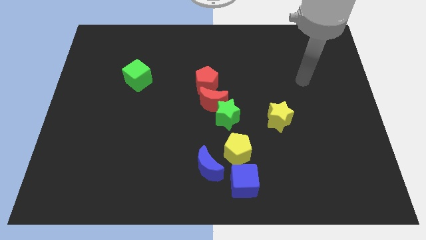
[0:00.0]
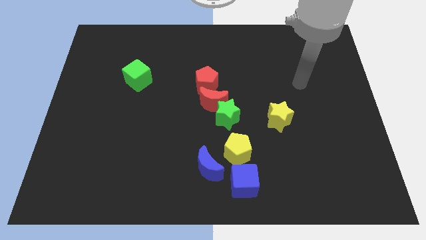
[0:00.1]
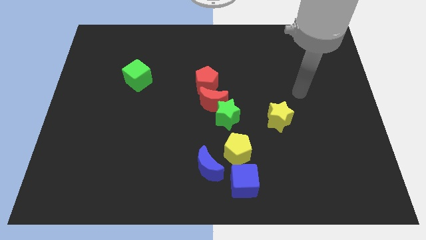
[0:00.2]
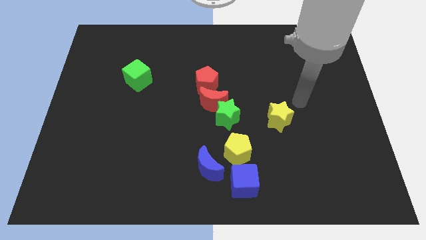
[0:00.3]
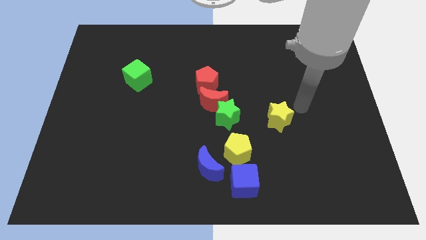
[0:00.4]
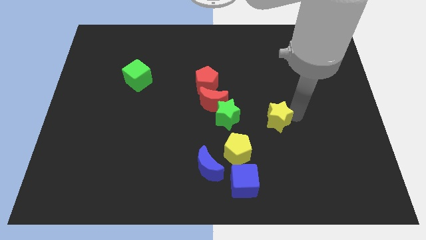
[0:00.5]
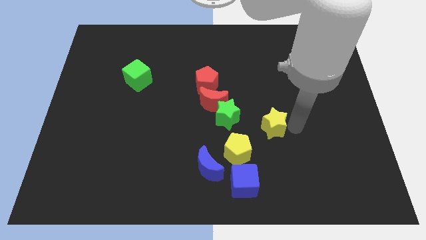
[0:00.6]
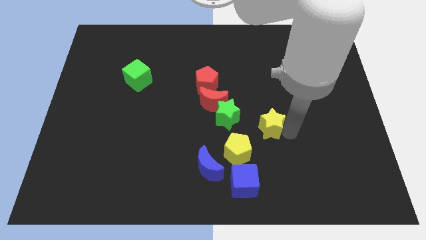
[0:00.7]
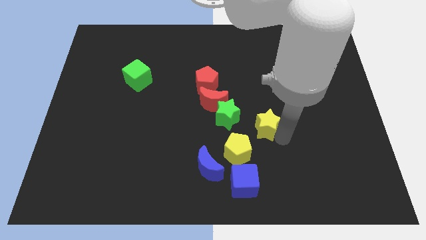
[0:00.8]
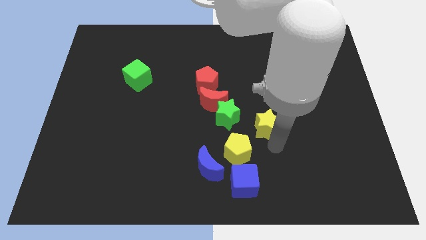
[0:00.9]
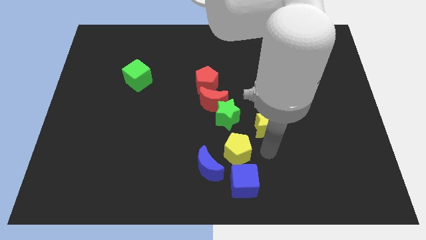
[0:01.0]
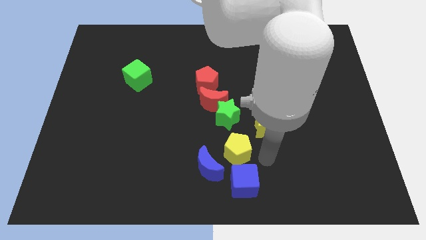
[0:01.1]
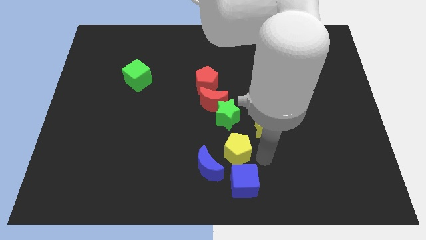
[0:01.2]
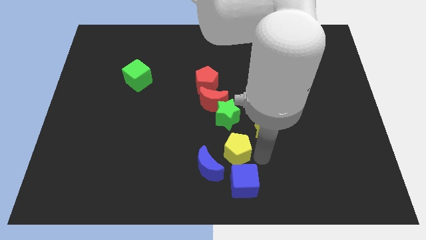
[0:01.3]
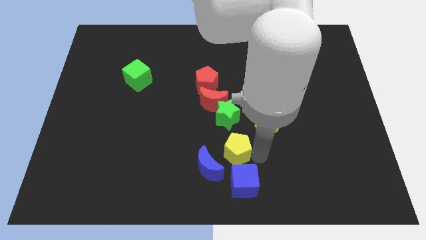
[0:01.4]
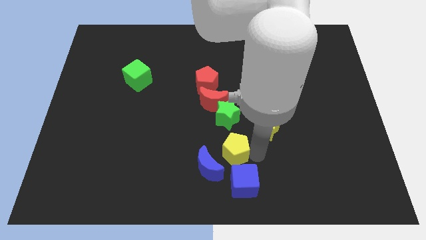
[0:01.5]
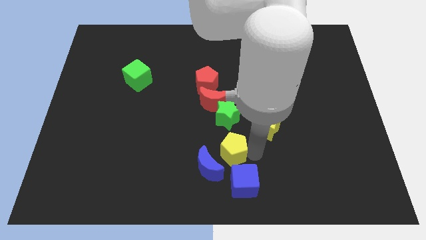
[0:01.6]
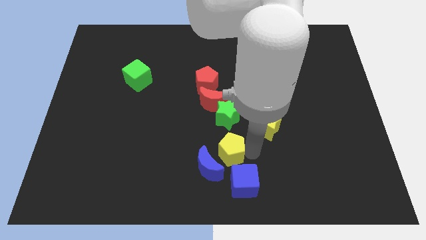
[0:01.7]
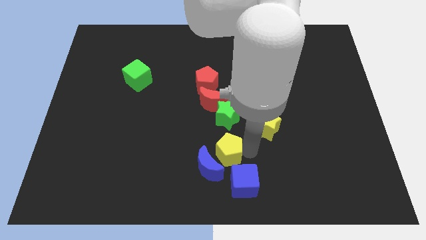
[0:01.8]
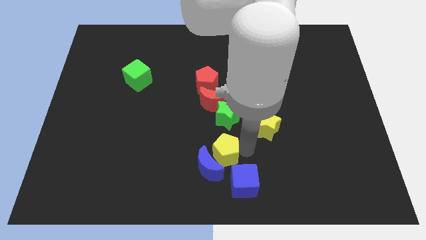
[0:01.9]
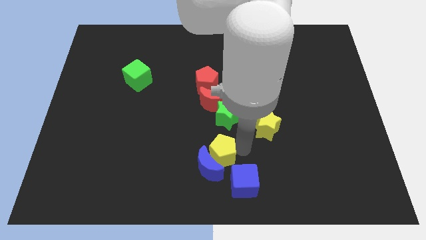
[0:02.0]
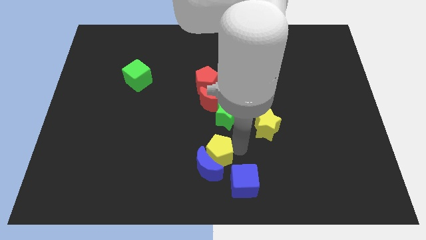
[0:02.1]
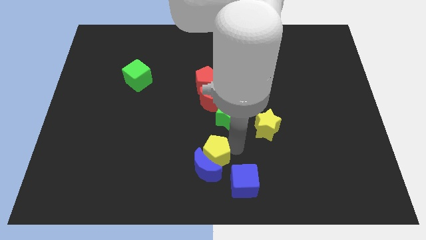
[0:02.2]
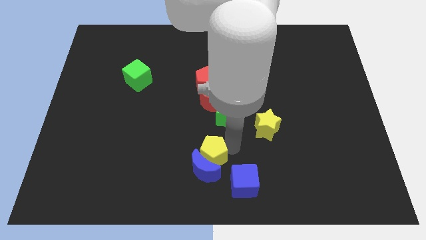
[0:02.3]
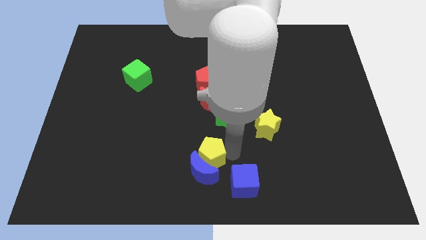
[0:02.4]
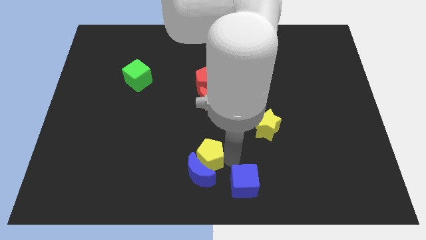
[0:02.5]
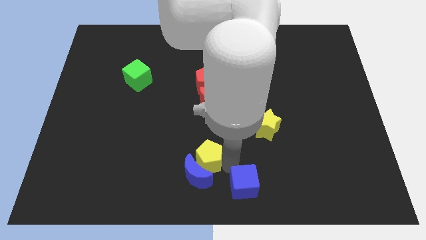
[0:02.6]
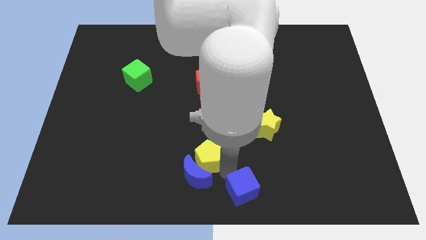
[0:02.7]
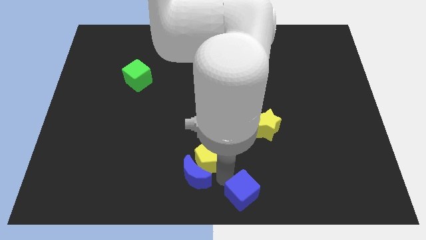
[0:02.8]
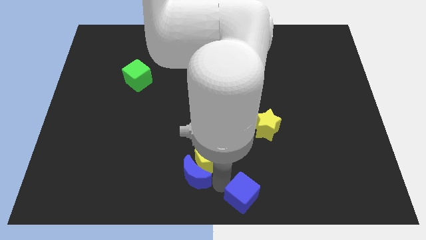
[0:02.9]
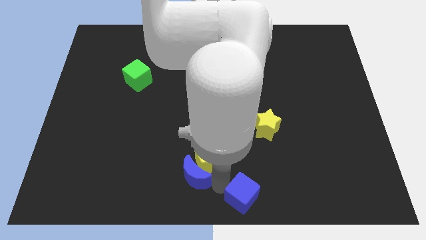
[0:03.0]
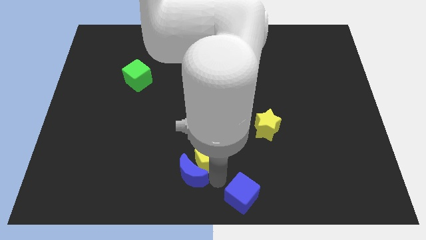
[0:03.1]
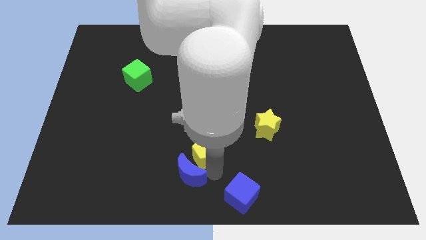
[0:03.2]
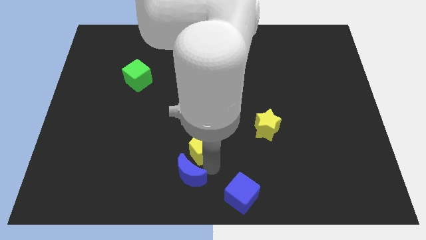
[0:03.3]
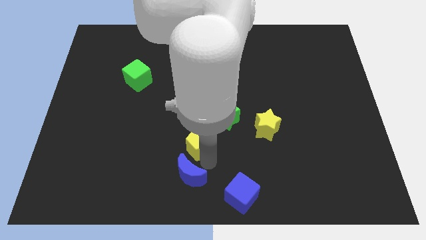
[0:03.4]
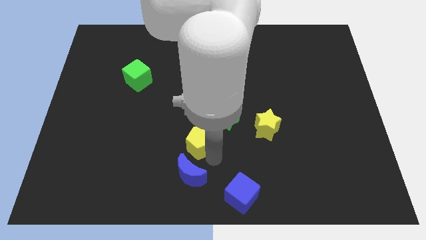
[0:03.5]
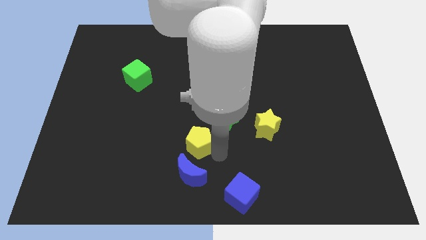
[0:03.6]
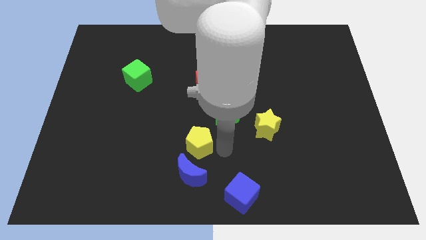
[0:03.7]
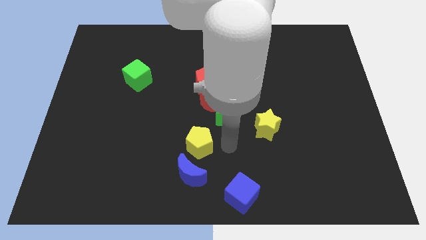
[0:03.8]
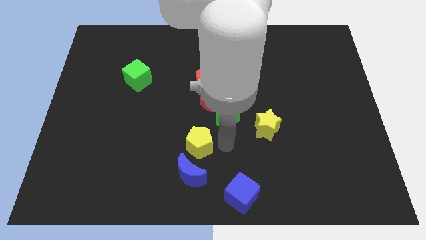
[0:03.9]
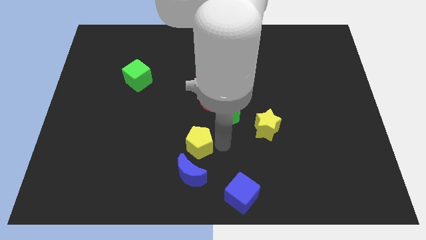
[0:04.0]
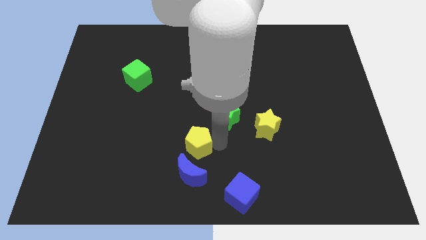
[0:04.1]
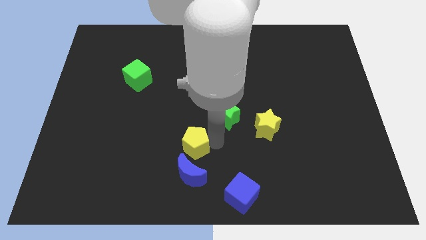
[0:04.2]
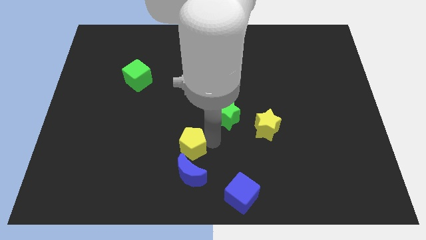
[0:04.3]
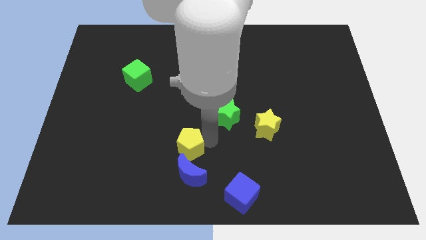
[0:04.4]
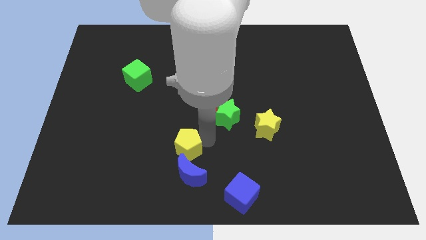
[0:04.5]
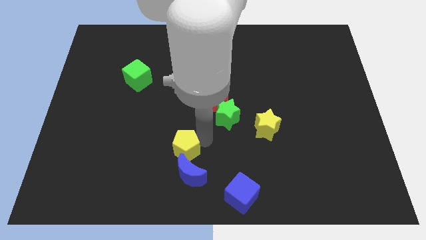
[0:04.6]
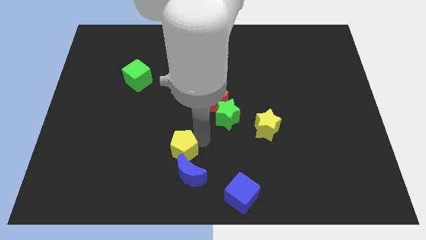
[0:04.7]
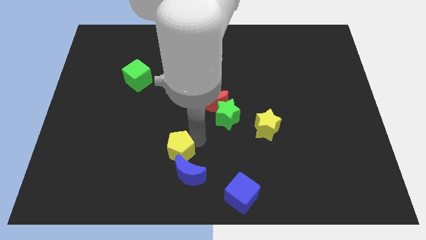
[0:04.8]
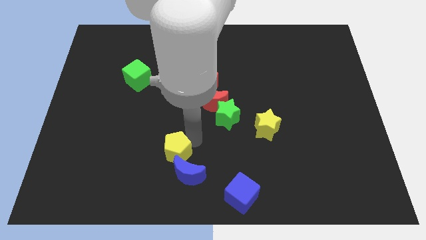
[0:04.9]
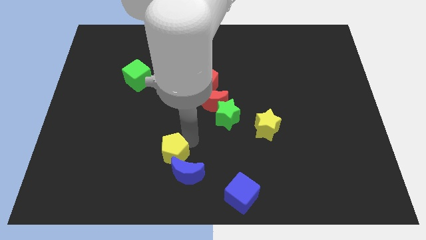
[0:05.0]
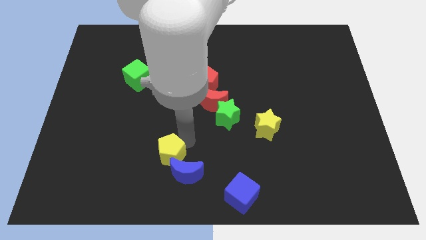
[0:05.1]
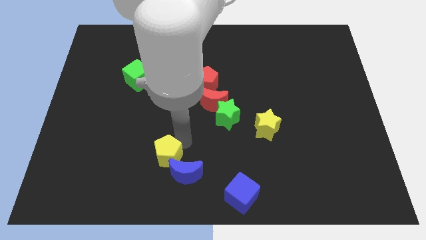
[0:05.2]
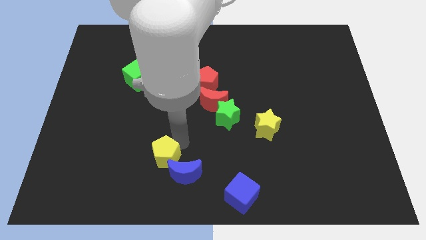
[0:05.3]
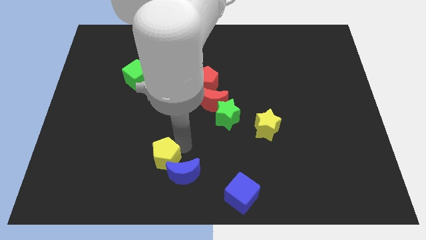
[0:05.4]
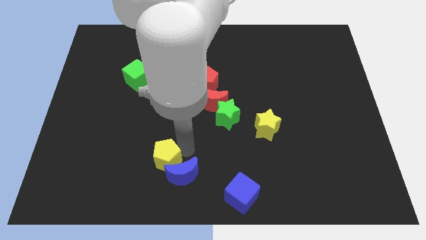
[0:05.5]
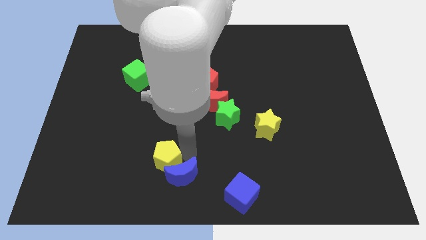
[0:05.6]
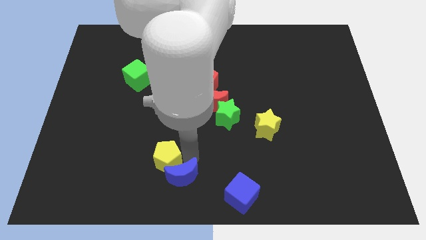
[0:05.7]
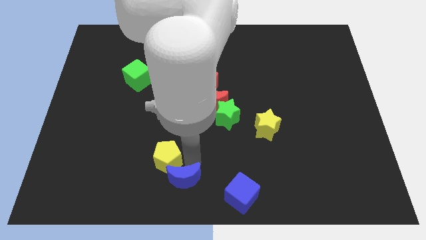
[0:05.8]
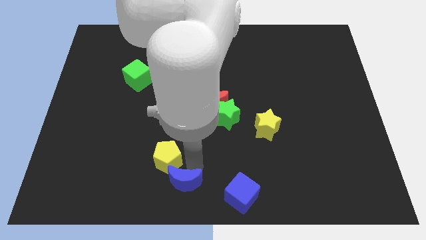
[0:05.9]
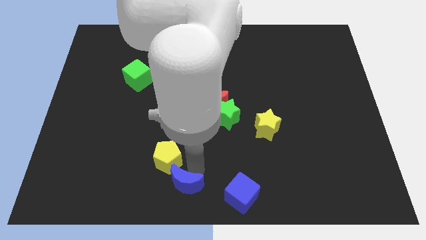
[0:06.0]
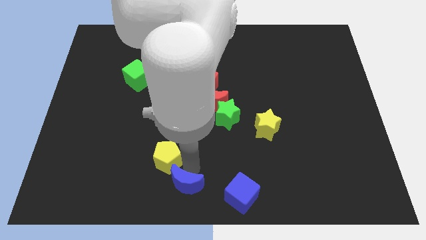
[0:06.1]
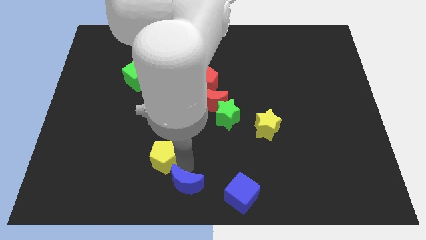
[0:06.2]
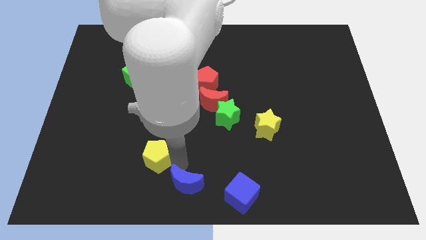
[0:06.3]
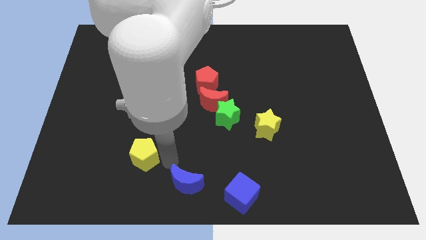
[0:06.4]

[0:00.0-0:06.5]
move the yellow pentagon to the left

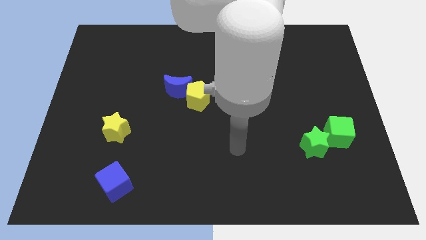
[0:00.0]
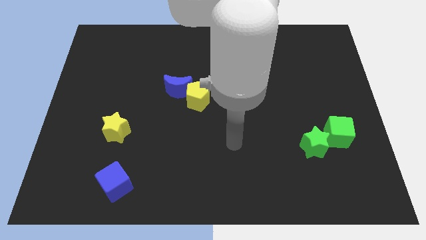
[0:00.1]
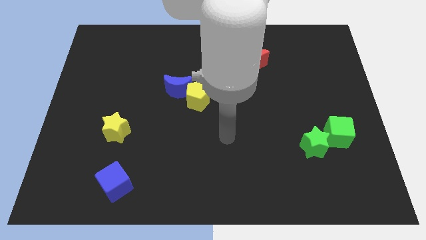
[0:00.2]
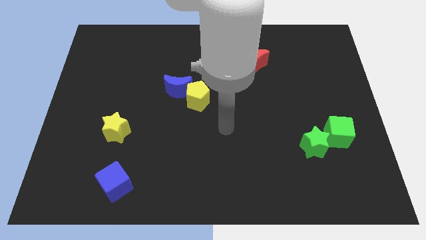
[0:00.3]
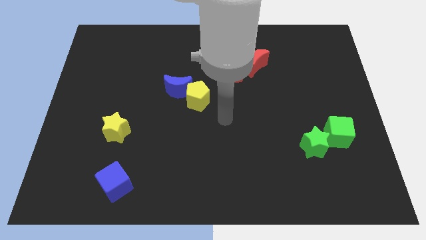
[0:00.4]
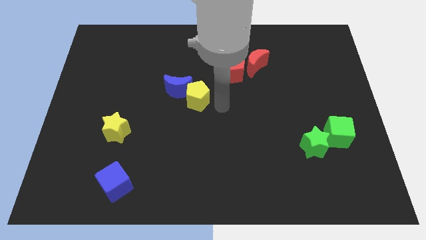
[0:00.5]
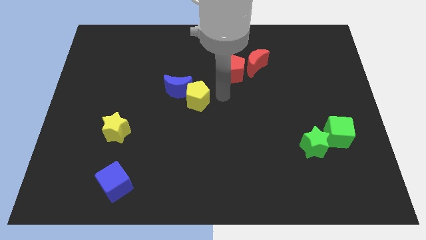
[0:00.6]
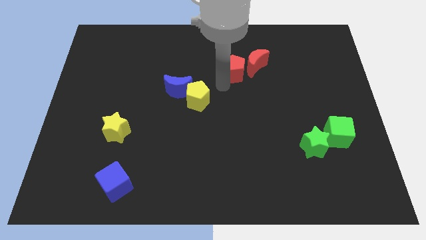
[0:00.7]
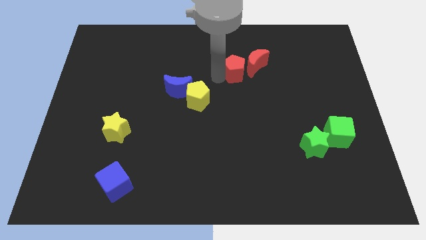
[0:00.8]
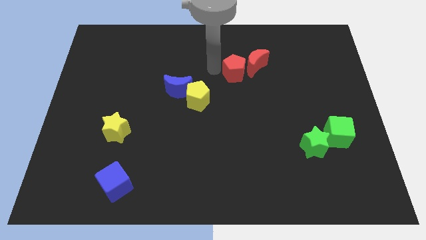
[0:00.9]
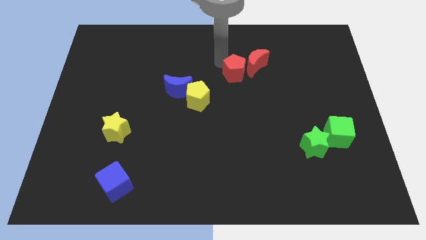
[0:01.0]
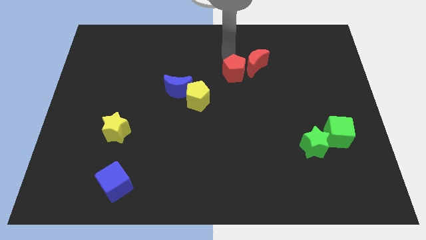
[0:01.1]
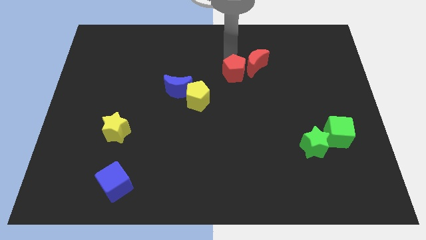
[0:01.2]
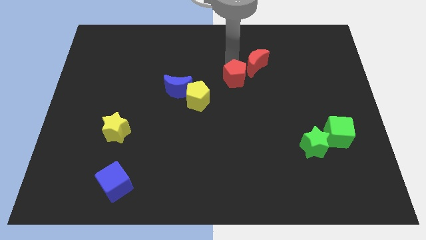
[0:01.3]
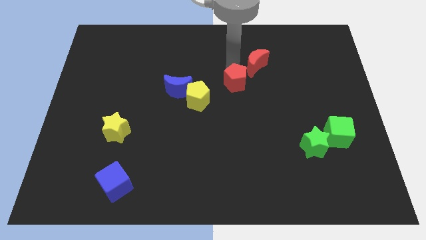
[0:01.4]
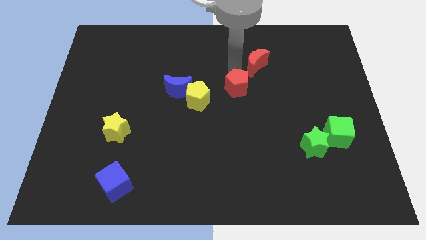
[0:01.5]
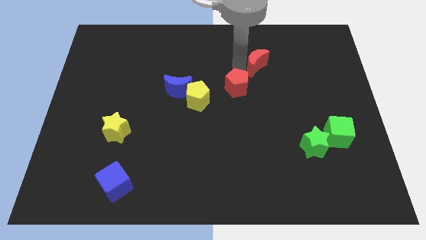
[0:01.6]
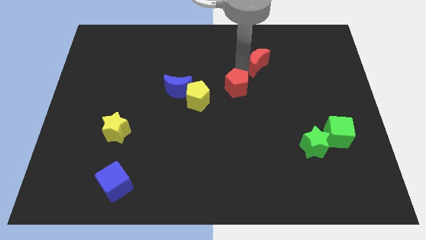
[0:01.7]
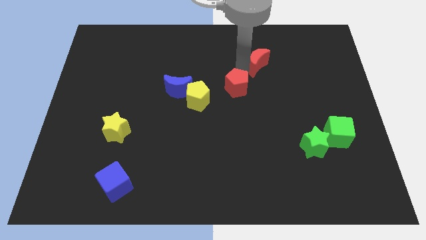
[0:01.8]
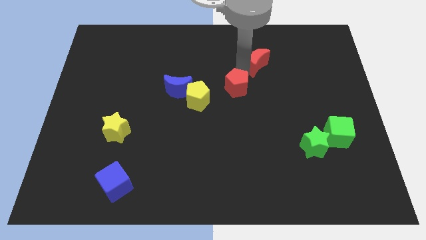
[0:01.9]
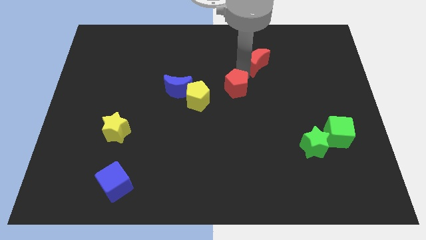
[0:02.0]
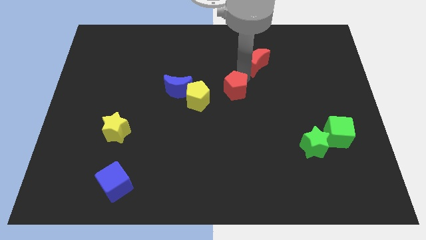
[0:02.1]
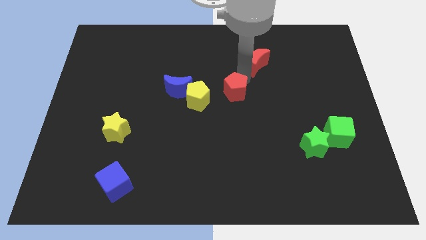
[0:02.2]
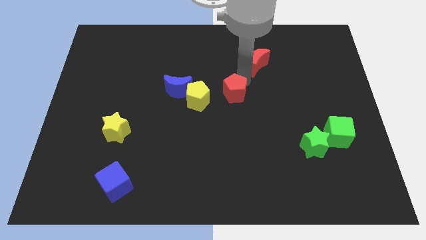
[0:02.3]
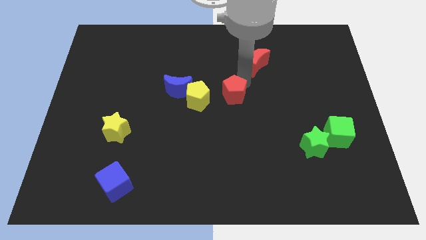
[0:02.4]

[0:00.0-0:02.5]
slightly move the red pentagon down
